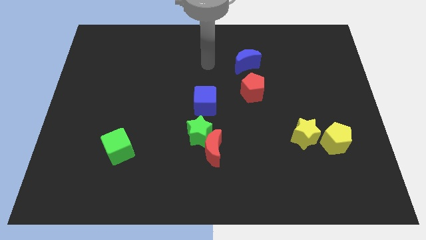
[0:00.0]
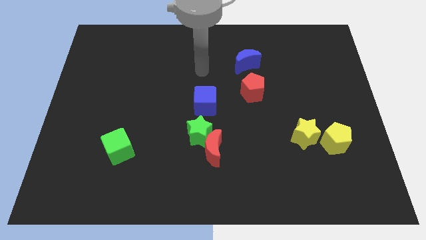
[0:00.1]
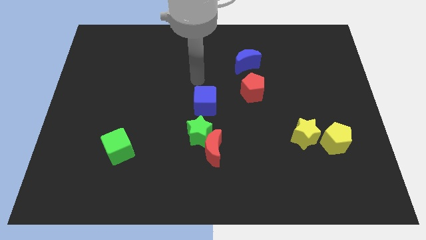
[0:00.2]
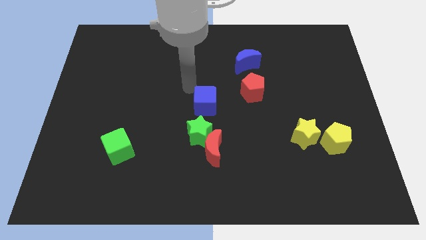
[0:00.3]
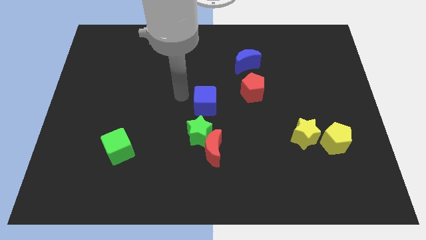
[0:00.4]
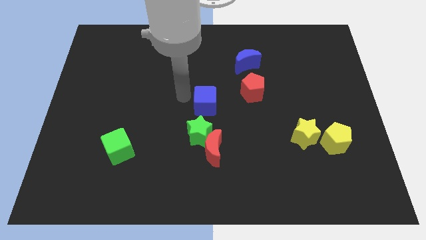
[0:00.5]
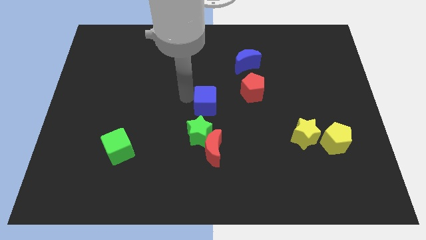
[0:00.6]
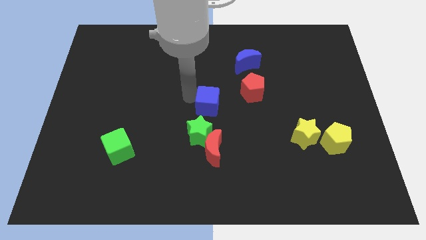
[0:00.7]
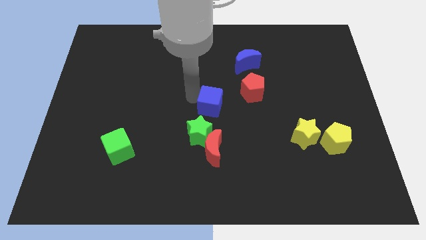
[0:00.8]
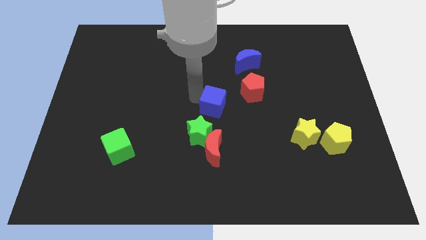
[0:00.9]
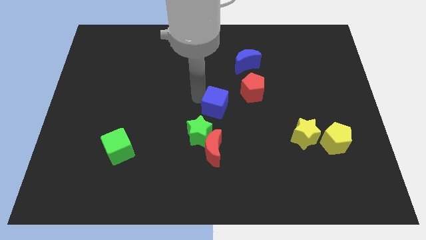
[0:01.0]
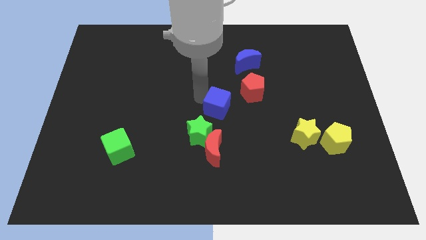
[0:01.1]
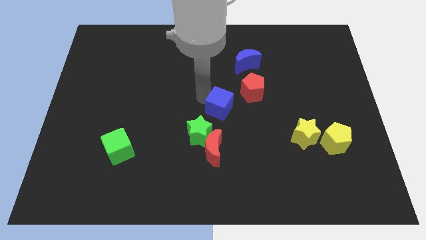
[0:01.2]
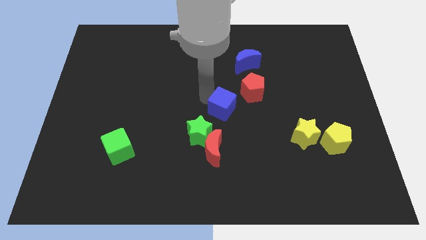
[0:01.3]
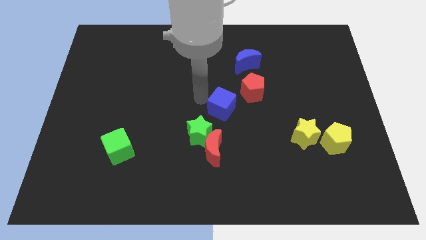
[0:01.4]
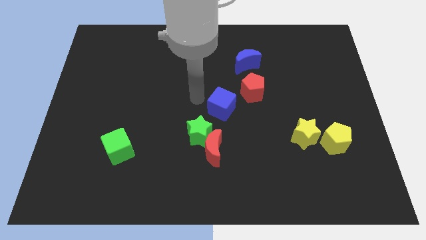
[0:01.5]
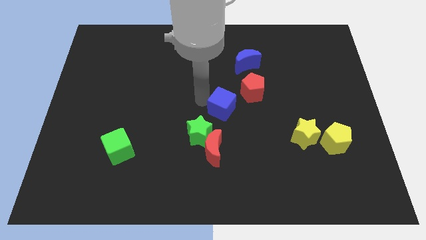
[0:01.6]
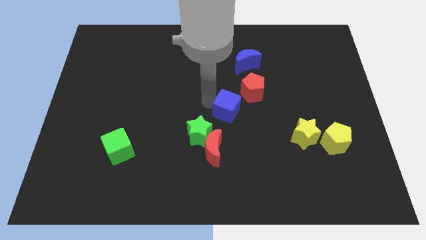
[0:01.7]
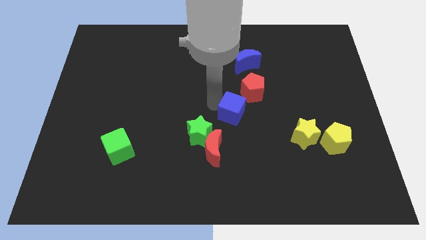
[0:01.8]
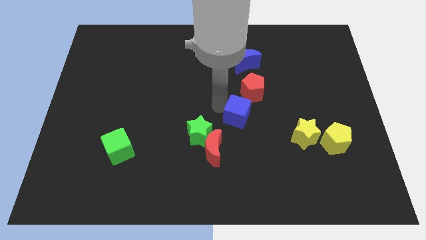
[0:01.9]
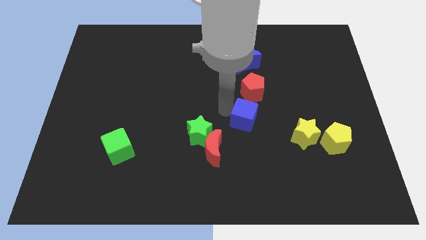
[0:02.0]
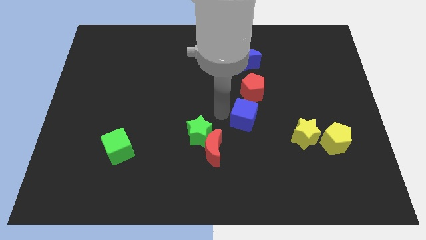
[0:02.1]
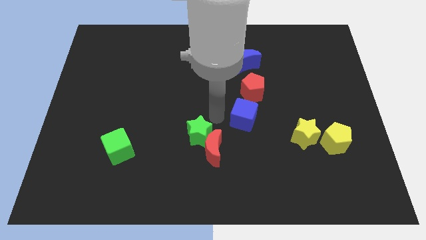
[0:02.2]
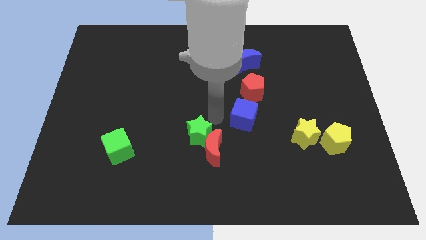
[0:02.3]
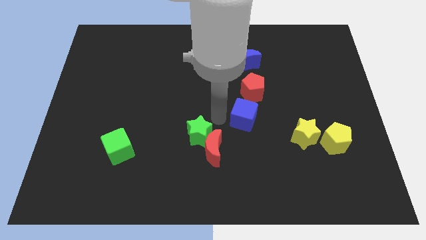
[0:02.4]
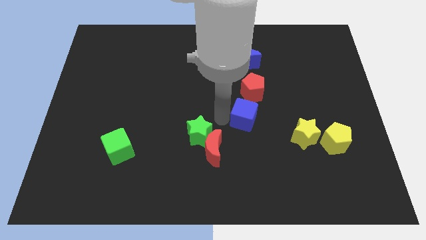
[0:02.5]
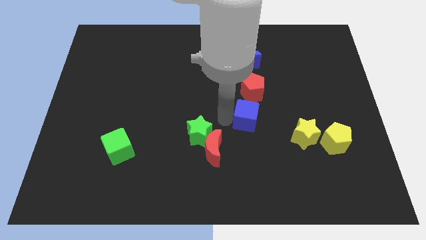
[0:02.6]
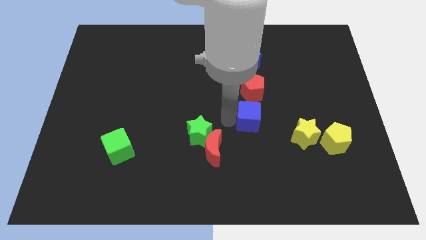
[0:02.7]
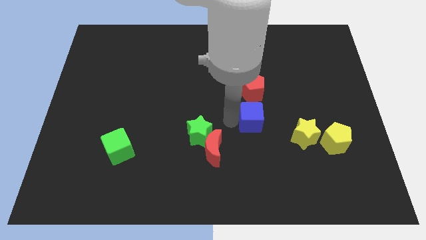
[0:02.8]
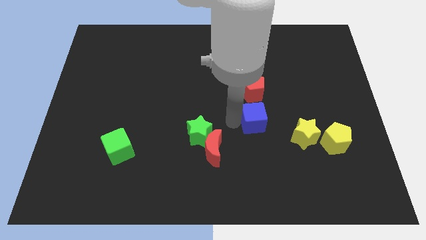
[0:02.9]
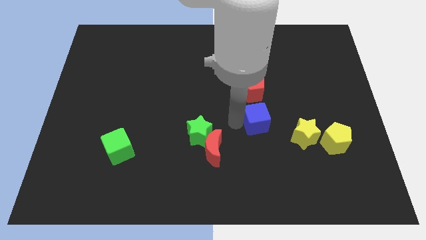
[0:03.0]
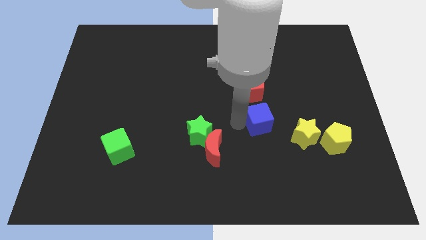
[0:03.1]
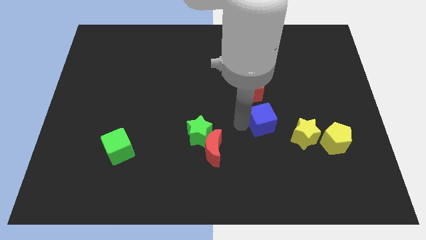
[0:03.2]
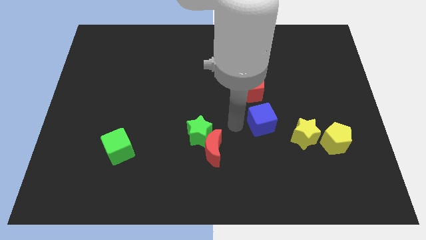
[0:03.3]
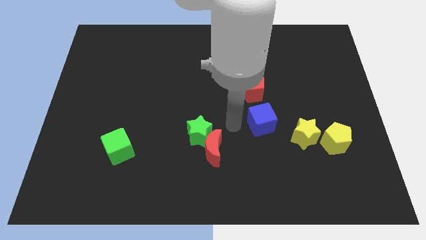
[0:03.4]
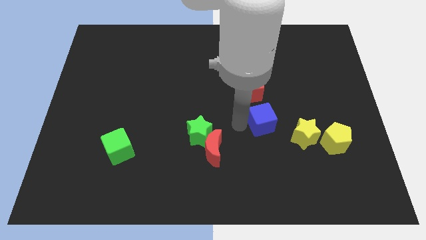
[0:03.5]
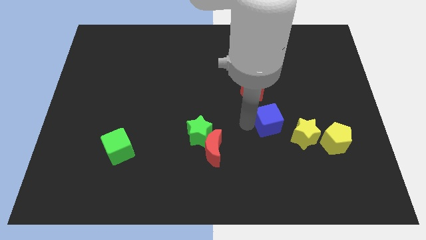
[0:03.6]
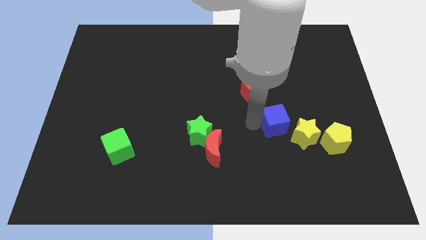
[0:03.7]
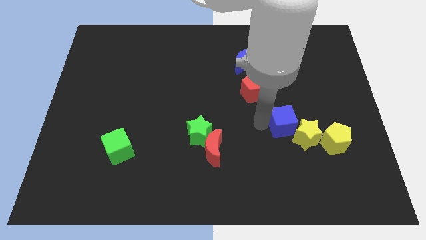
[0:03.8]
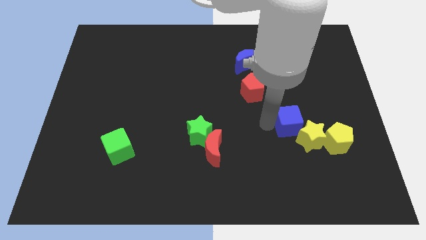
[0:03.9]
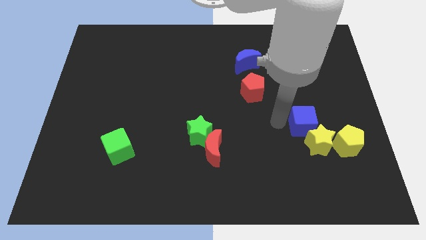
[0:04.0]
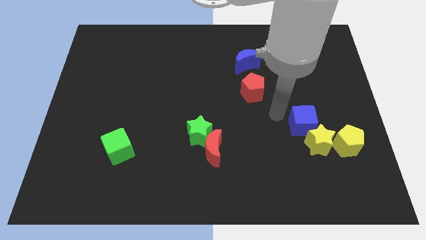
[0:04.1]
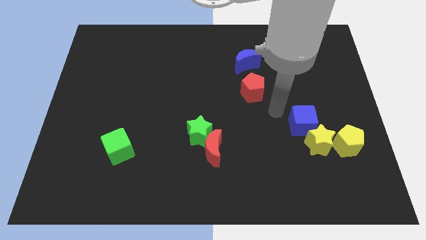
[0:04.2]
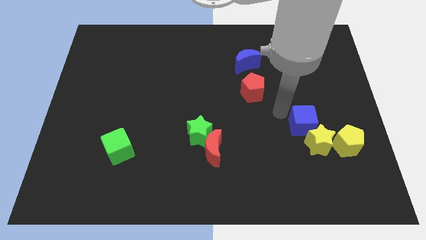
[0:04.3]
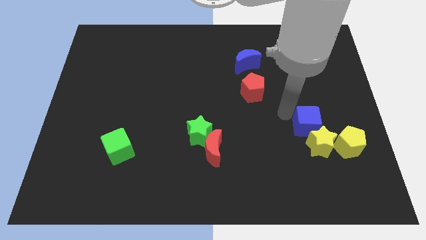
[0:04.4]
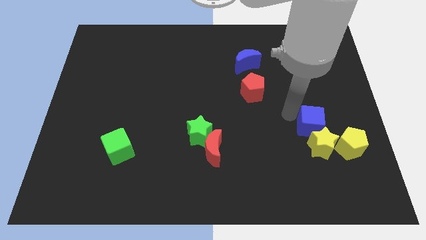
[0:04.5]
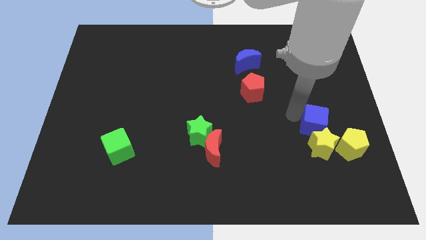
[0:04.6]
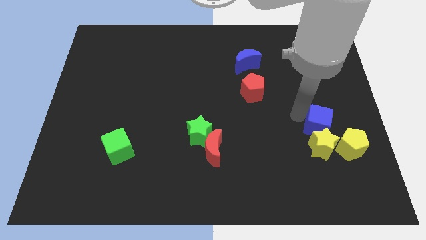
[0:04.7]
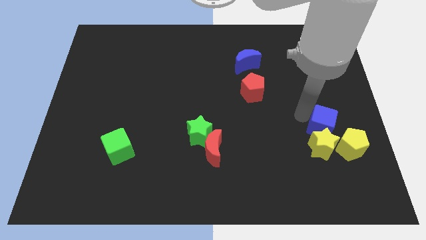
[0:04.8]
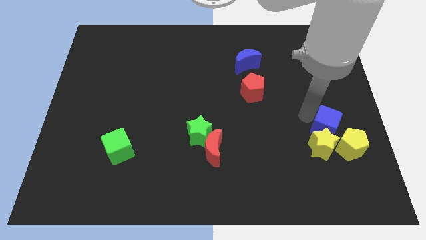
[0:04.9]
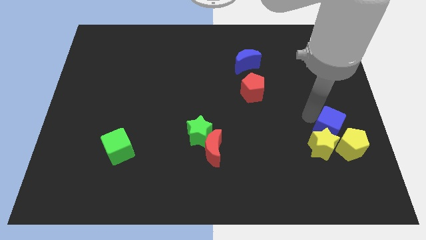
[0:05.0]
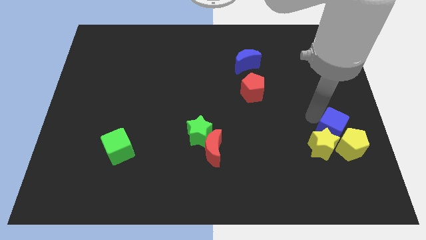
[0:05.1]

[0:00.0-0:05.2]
slide the blue cube towards the yellow pentagon

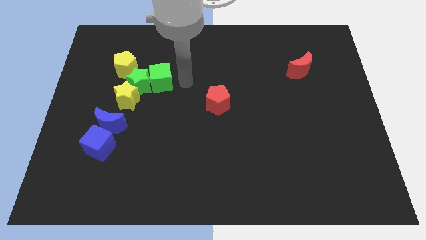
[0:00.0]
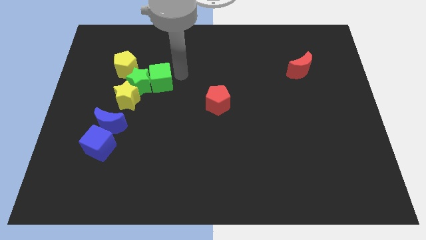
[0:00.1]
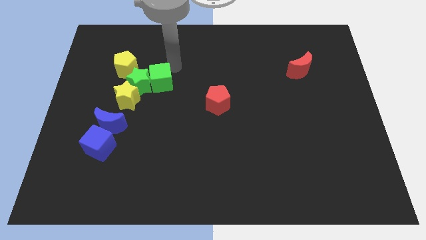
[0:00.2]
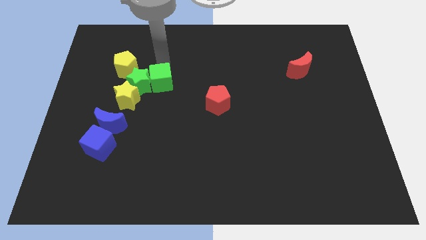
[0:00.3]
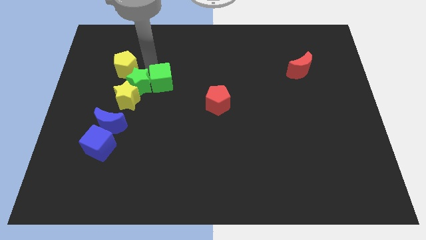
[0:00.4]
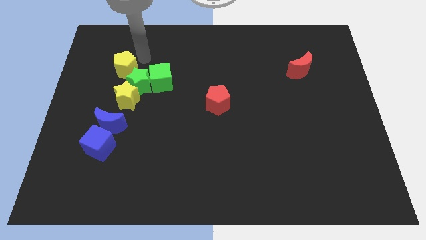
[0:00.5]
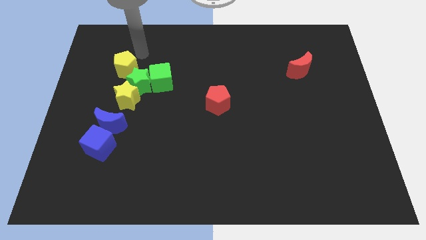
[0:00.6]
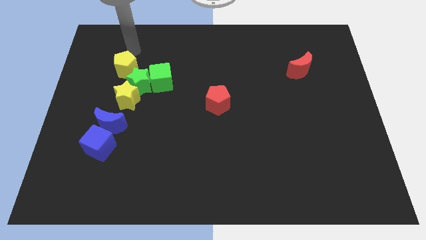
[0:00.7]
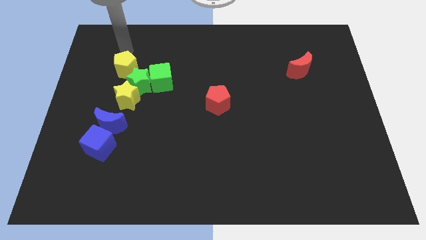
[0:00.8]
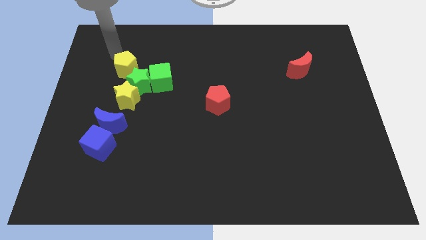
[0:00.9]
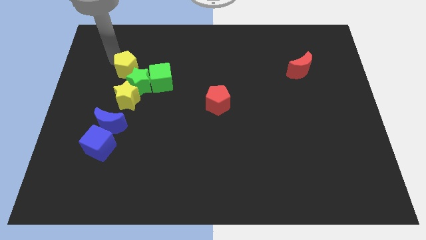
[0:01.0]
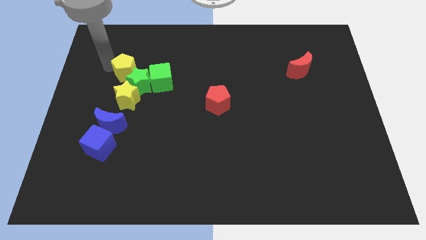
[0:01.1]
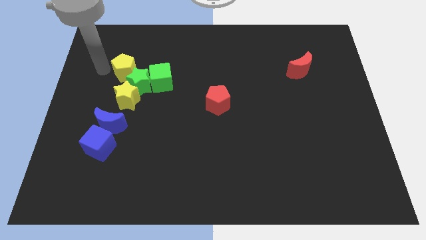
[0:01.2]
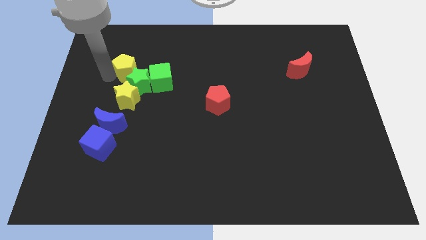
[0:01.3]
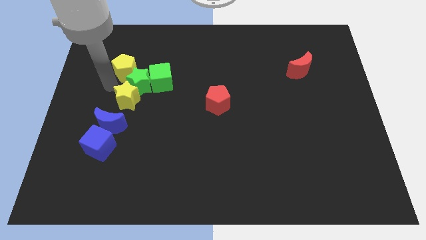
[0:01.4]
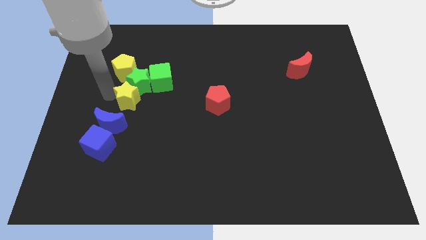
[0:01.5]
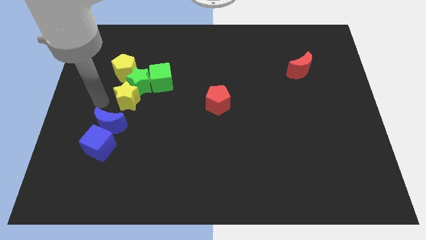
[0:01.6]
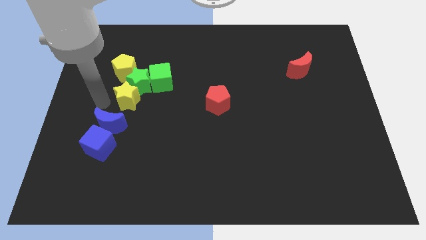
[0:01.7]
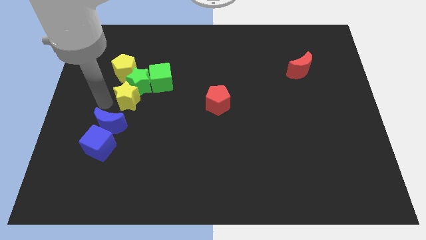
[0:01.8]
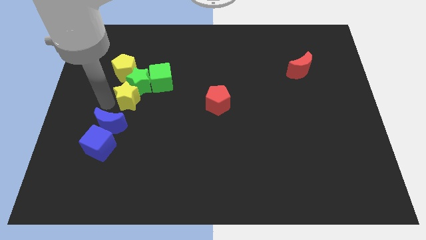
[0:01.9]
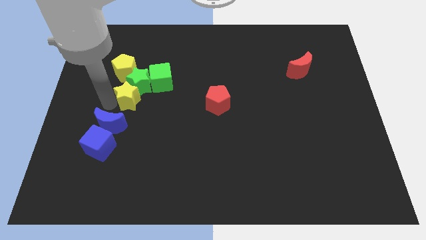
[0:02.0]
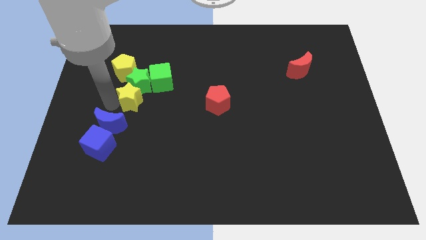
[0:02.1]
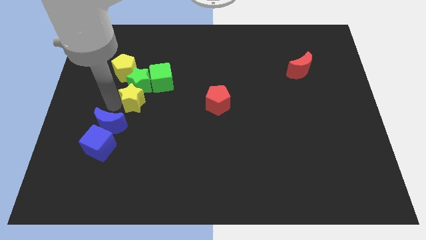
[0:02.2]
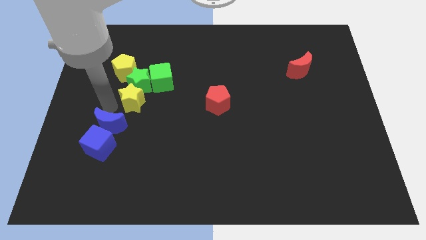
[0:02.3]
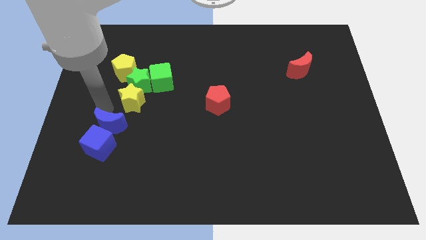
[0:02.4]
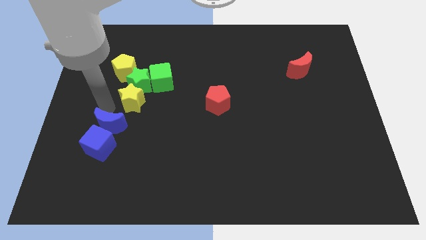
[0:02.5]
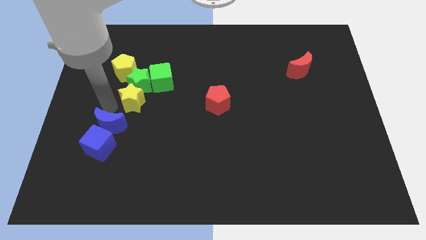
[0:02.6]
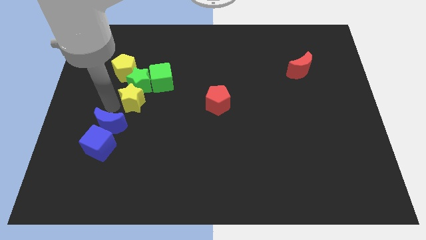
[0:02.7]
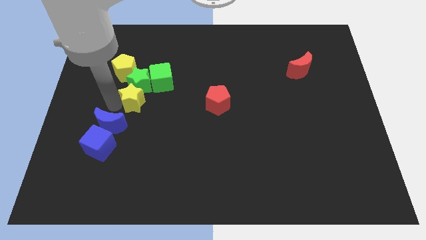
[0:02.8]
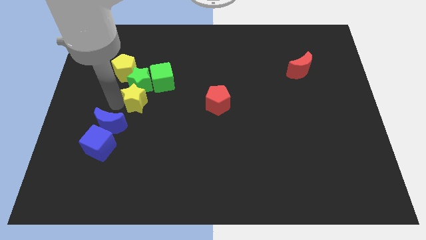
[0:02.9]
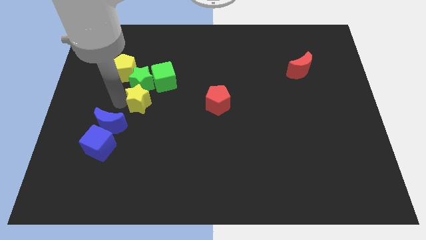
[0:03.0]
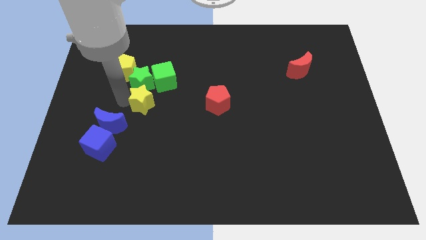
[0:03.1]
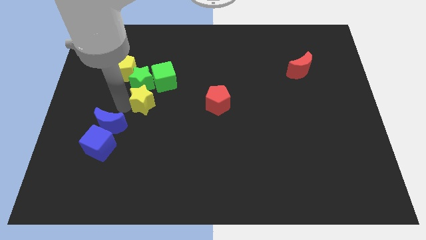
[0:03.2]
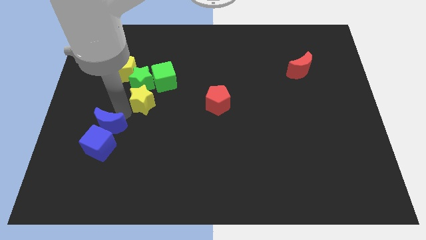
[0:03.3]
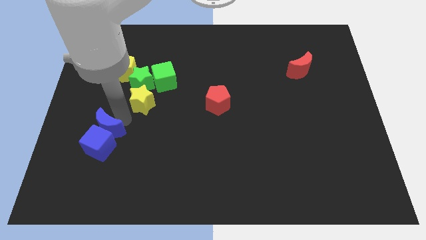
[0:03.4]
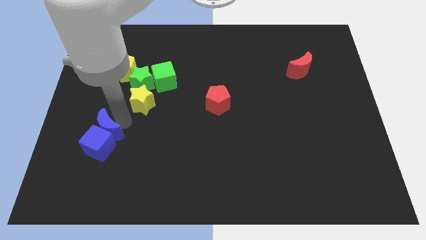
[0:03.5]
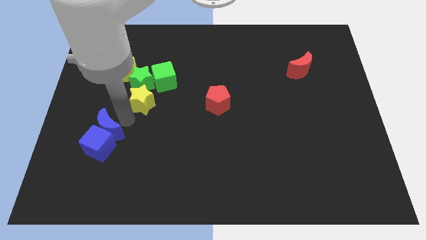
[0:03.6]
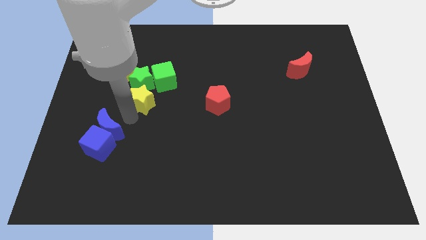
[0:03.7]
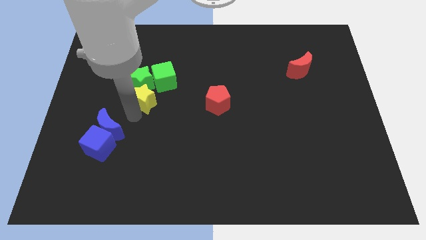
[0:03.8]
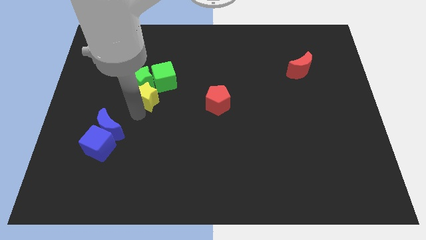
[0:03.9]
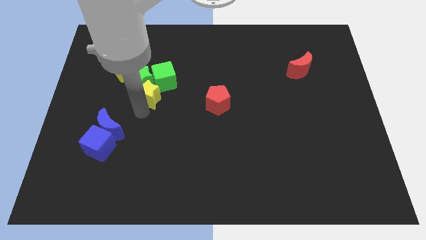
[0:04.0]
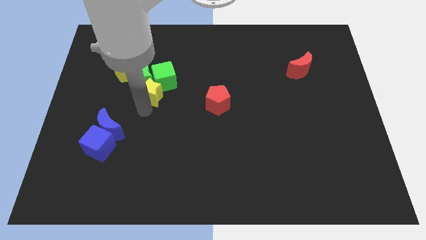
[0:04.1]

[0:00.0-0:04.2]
slide the yellow star to the green cube
